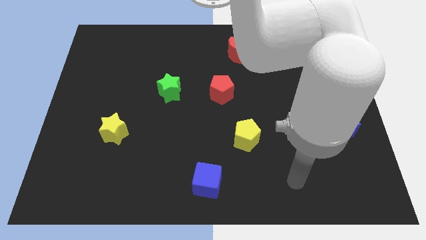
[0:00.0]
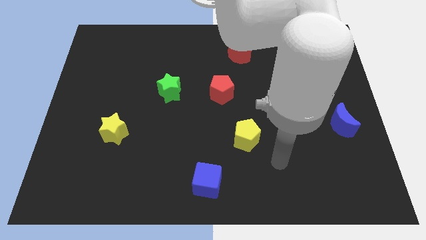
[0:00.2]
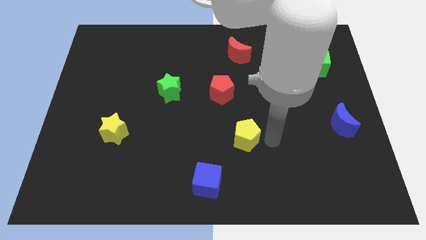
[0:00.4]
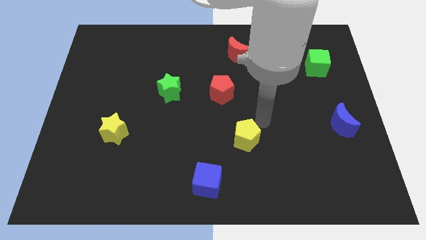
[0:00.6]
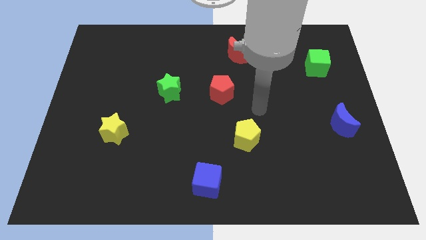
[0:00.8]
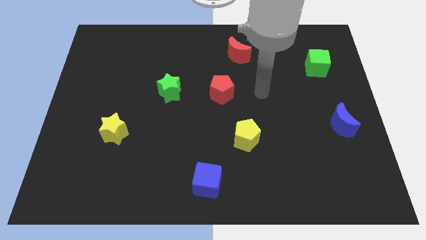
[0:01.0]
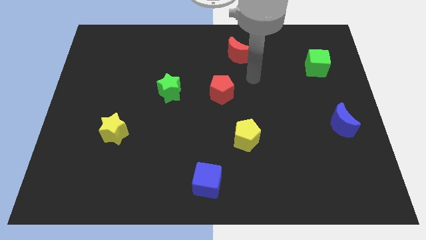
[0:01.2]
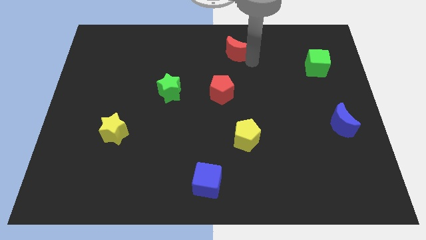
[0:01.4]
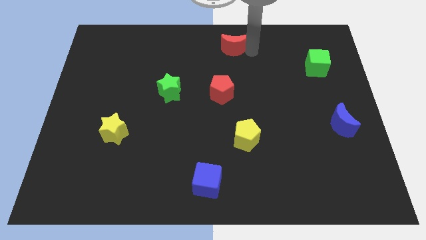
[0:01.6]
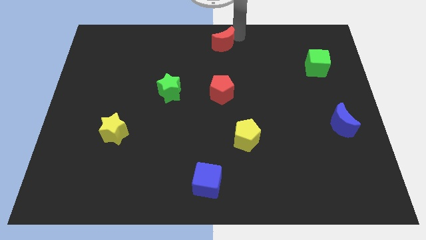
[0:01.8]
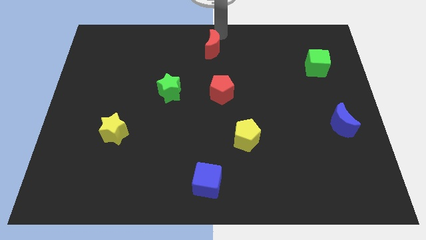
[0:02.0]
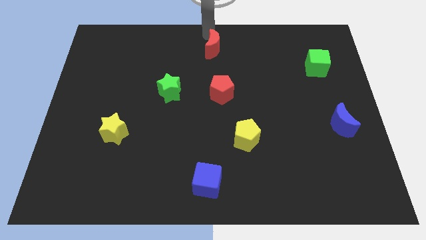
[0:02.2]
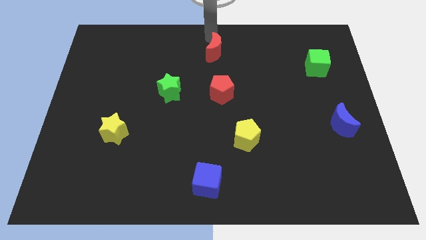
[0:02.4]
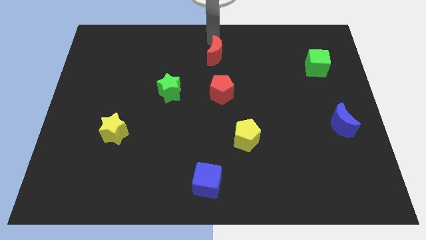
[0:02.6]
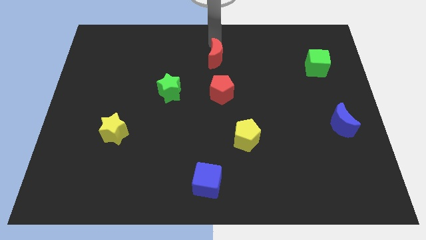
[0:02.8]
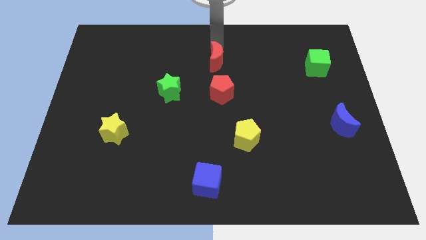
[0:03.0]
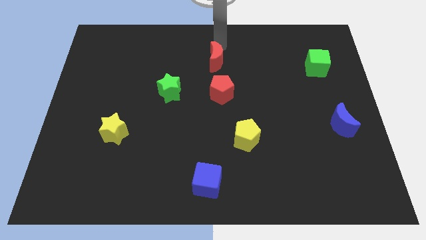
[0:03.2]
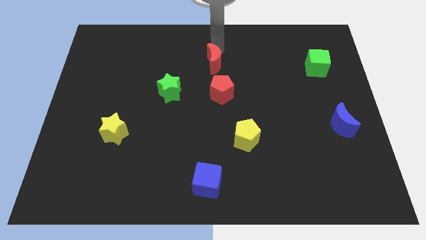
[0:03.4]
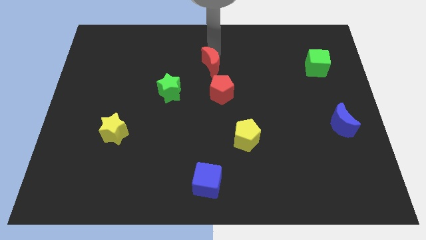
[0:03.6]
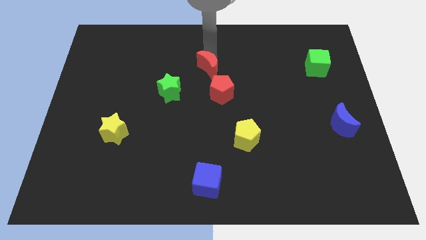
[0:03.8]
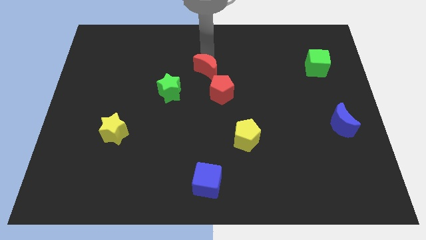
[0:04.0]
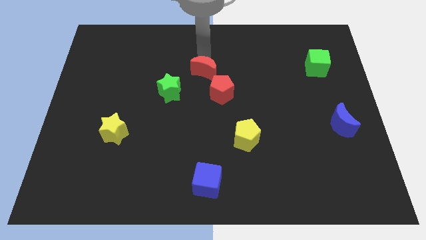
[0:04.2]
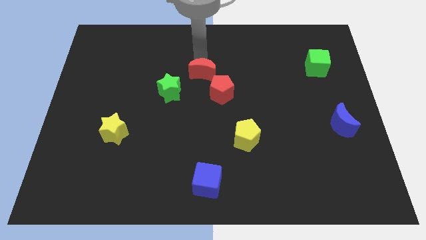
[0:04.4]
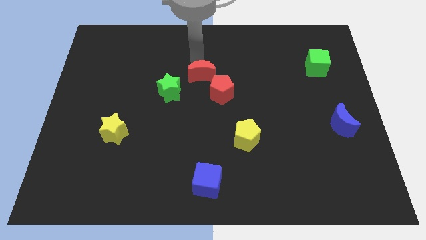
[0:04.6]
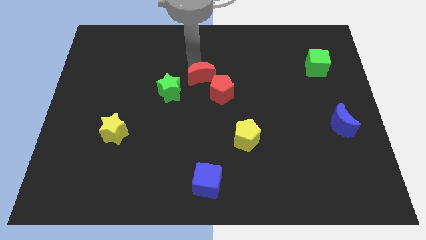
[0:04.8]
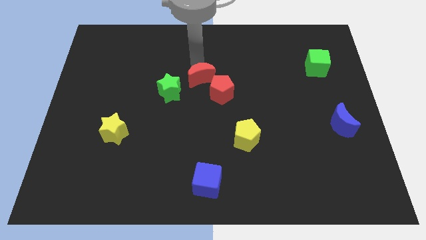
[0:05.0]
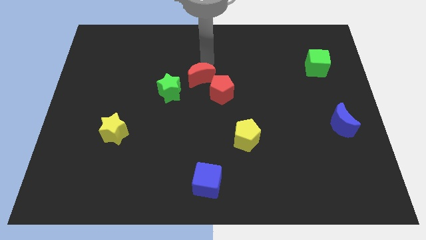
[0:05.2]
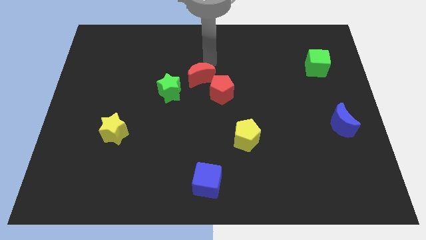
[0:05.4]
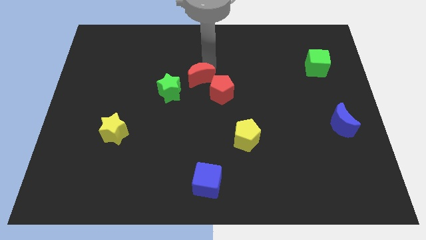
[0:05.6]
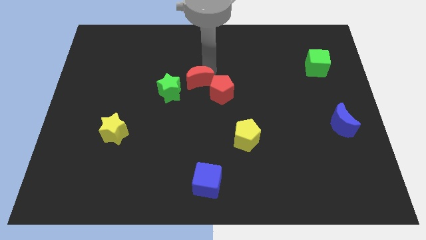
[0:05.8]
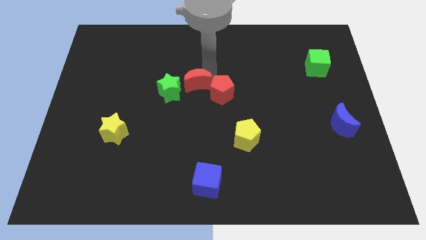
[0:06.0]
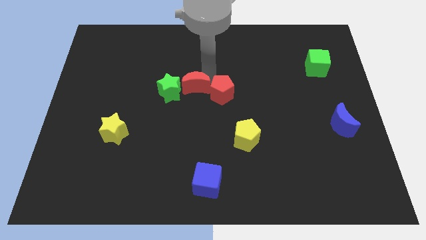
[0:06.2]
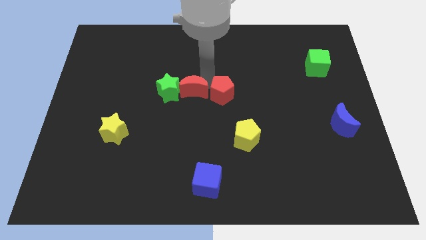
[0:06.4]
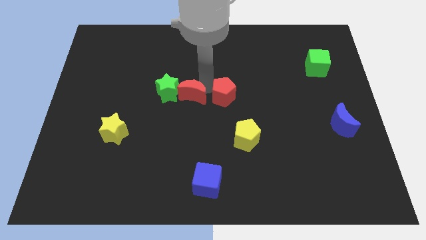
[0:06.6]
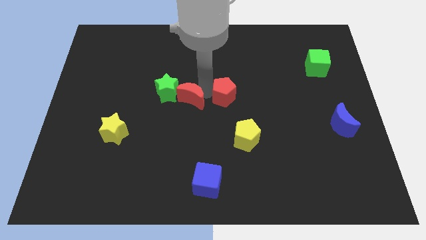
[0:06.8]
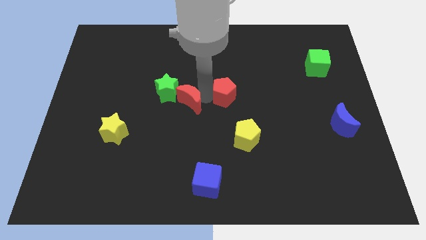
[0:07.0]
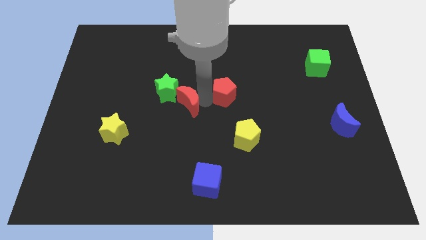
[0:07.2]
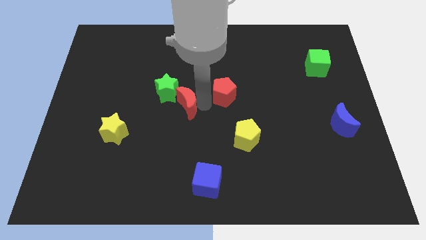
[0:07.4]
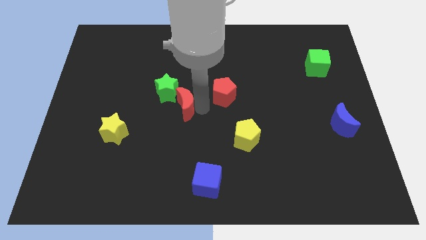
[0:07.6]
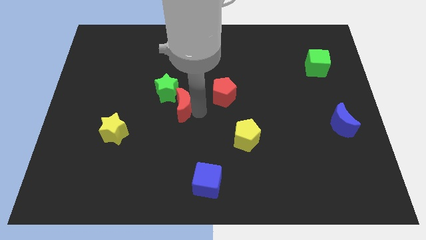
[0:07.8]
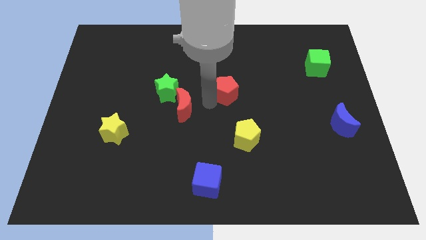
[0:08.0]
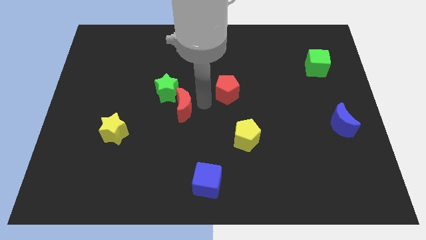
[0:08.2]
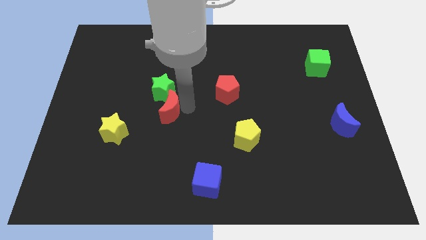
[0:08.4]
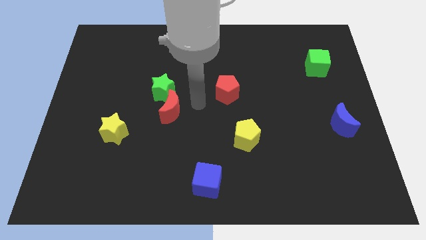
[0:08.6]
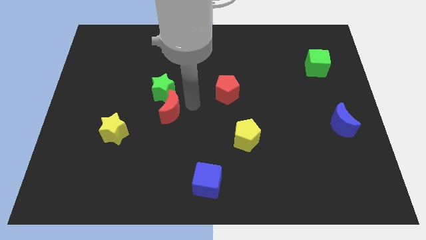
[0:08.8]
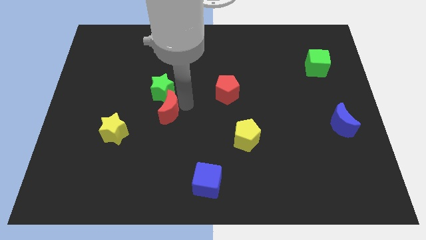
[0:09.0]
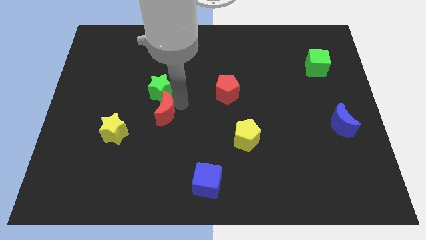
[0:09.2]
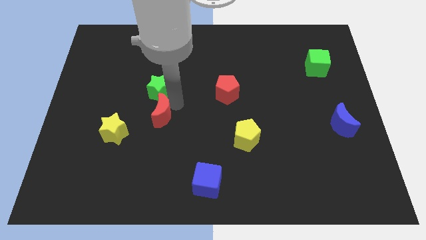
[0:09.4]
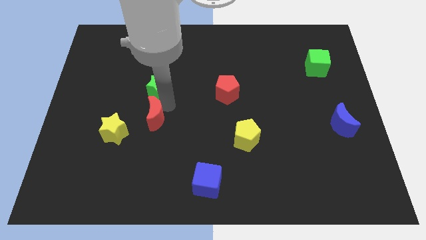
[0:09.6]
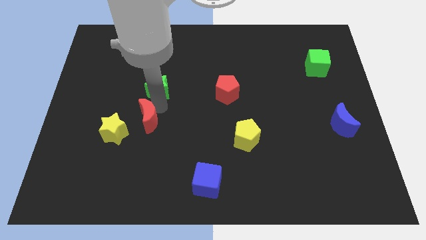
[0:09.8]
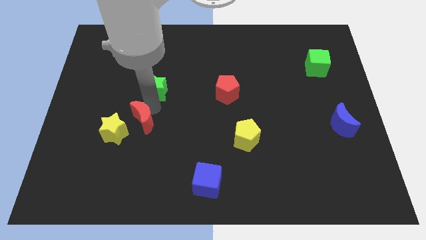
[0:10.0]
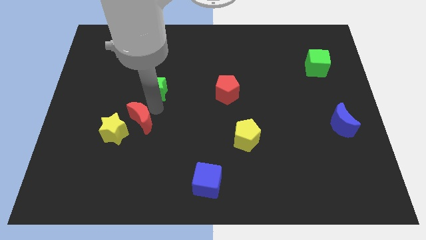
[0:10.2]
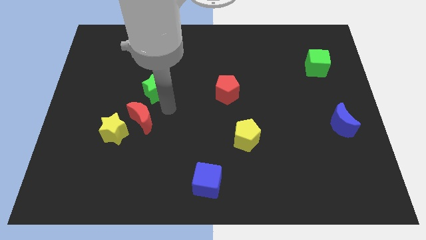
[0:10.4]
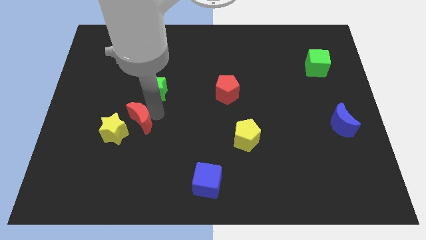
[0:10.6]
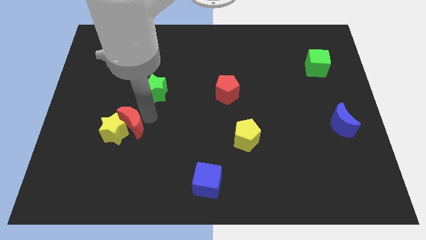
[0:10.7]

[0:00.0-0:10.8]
move the red moon close to the yellow star

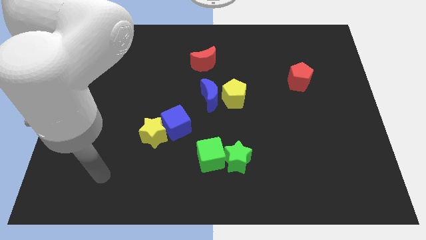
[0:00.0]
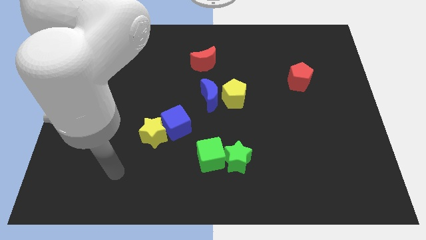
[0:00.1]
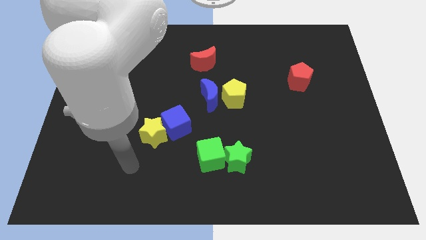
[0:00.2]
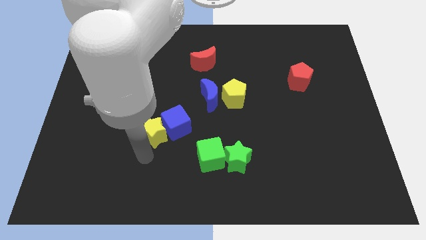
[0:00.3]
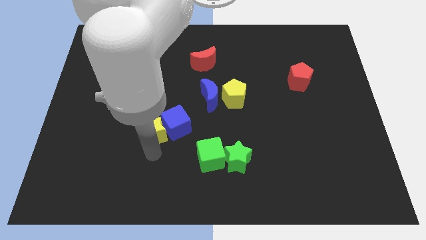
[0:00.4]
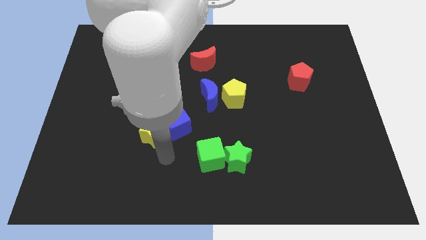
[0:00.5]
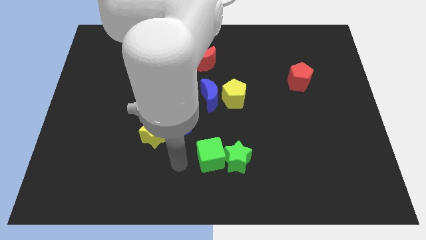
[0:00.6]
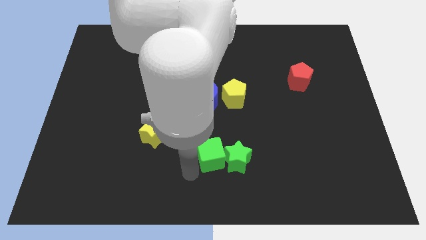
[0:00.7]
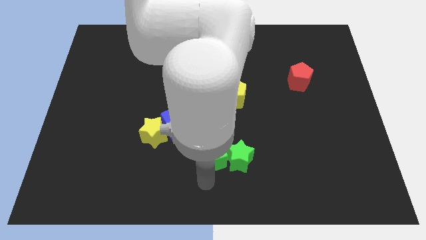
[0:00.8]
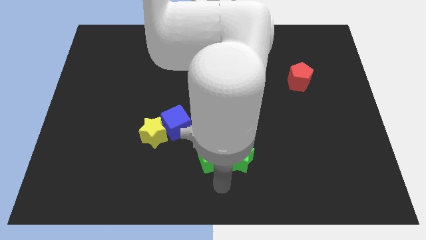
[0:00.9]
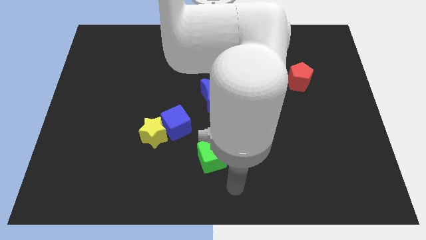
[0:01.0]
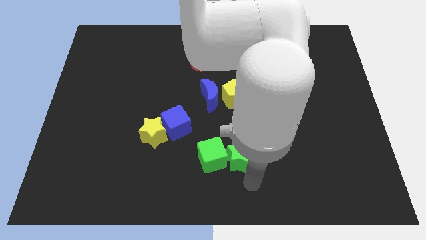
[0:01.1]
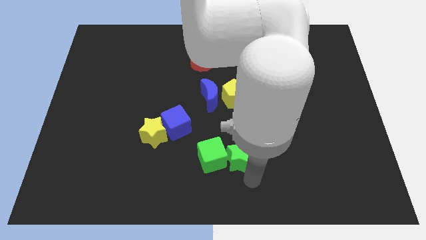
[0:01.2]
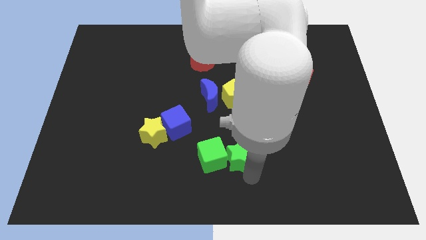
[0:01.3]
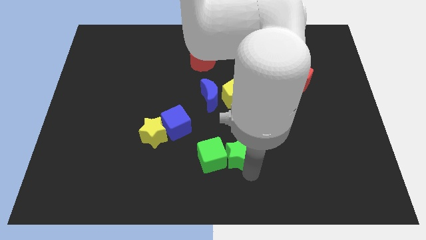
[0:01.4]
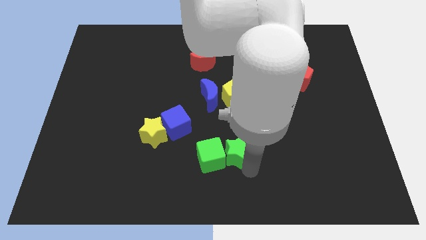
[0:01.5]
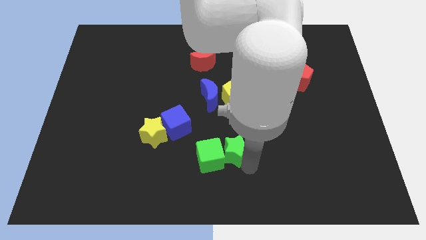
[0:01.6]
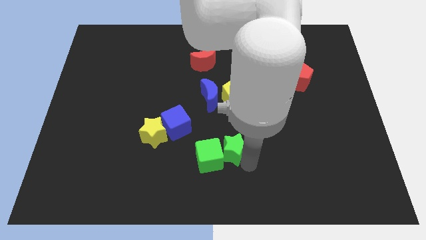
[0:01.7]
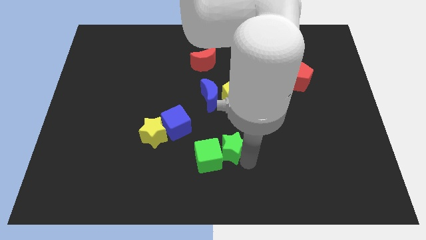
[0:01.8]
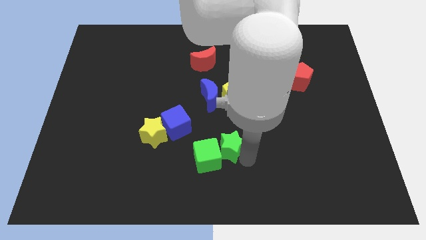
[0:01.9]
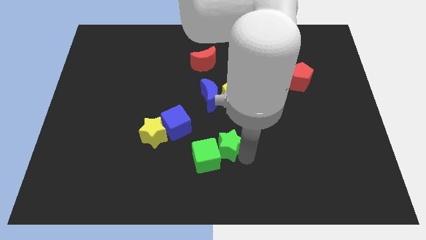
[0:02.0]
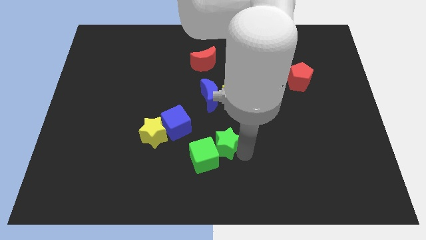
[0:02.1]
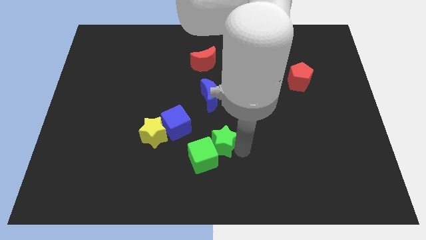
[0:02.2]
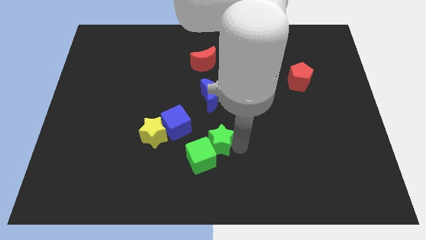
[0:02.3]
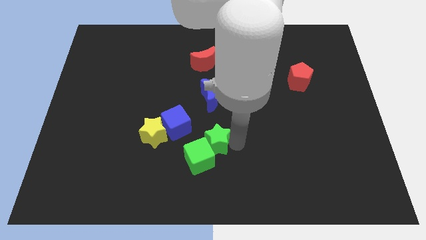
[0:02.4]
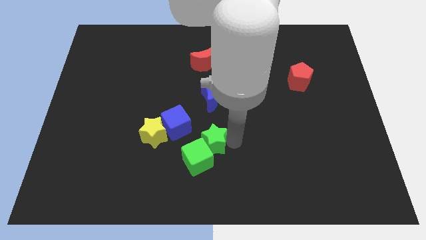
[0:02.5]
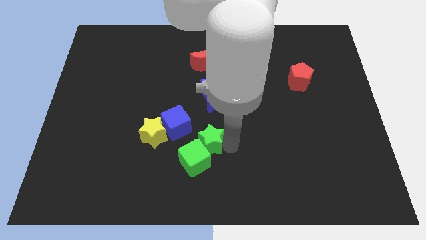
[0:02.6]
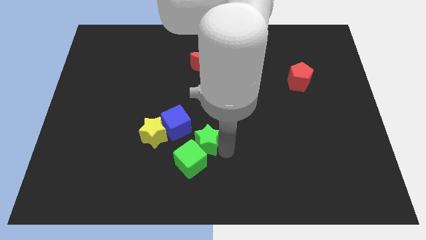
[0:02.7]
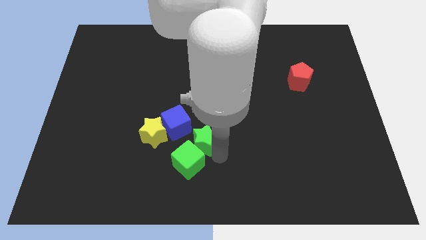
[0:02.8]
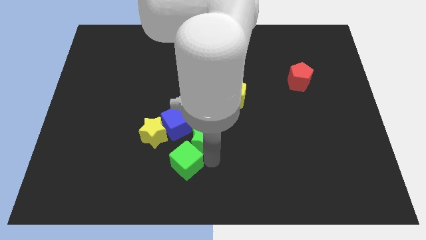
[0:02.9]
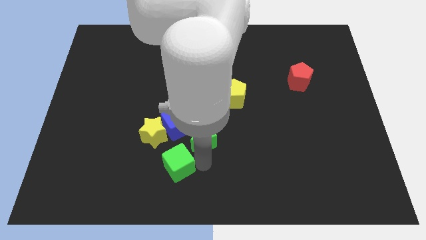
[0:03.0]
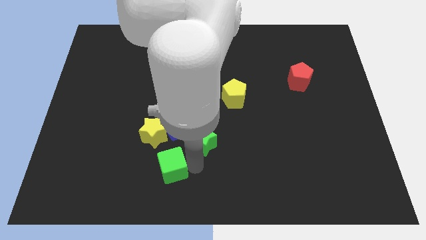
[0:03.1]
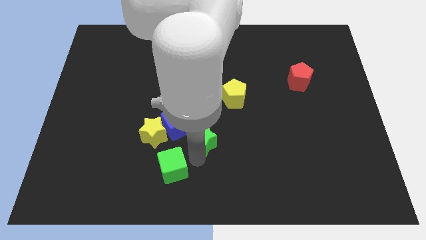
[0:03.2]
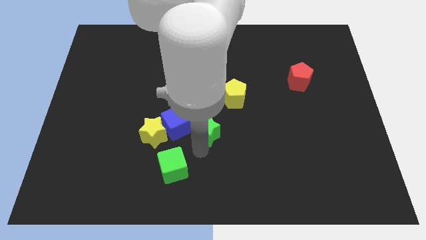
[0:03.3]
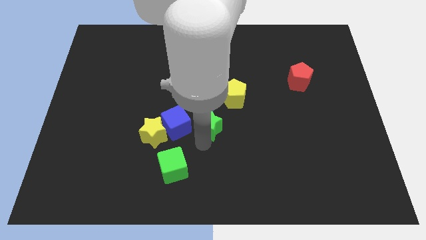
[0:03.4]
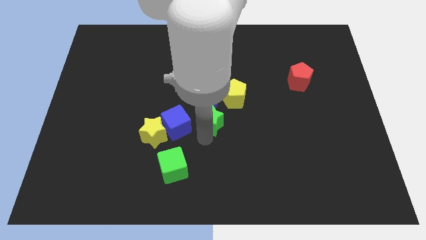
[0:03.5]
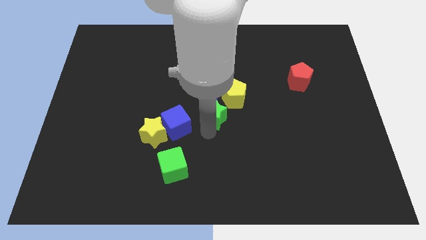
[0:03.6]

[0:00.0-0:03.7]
move the green star towards the blue moon
